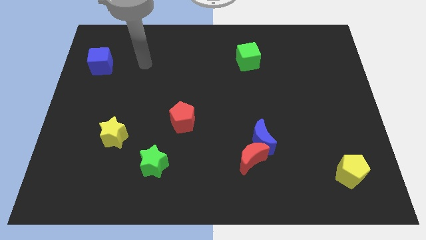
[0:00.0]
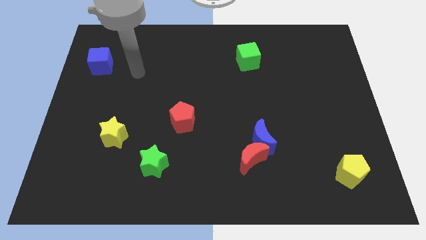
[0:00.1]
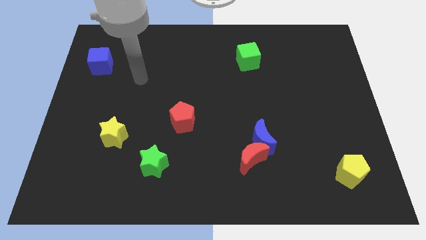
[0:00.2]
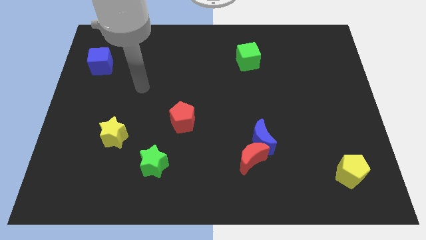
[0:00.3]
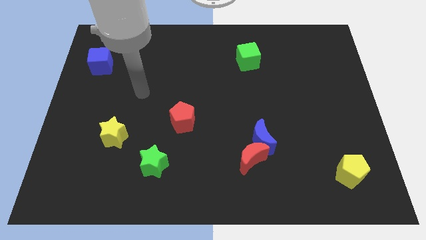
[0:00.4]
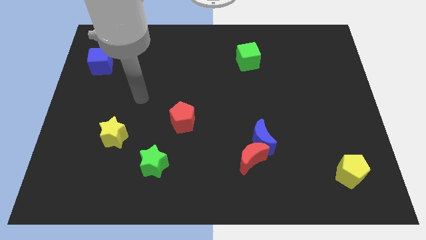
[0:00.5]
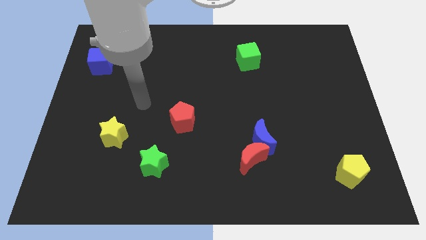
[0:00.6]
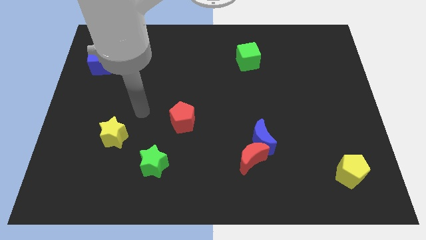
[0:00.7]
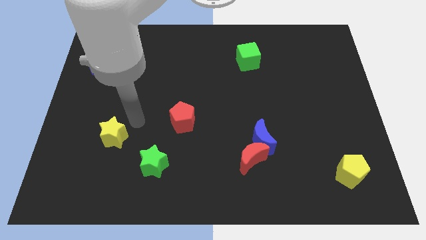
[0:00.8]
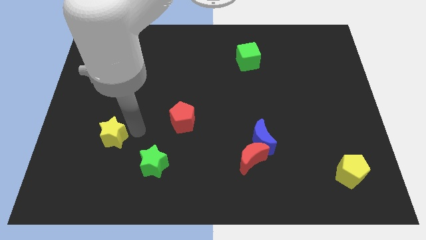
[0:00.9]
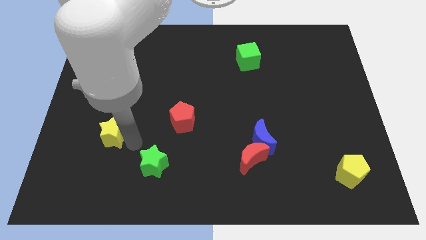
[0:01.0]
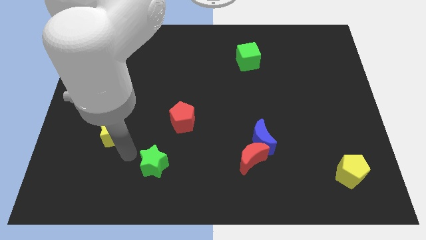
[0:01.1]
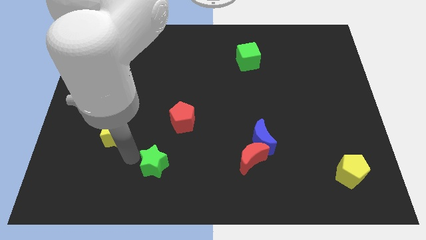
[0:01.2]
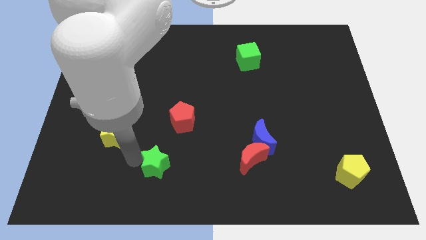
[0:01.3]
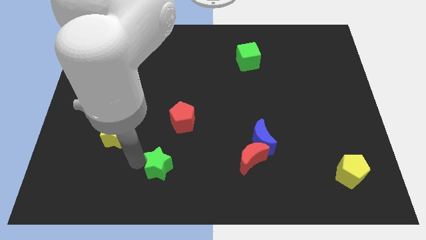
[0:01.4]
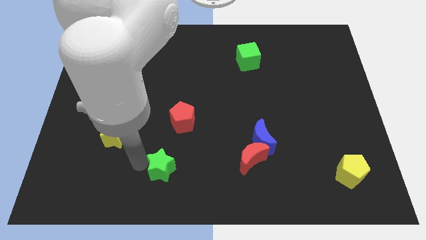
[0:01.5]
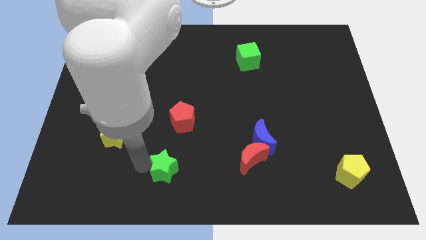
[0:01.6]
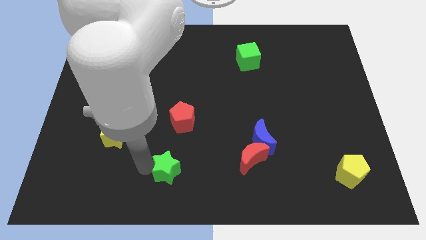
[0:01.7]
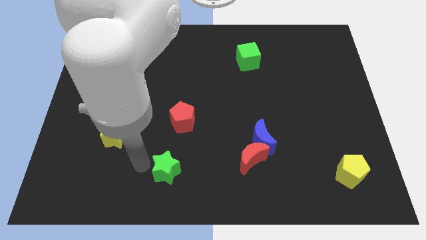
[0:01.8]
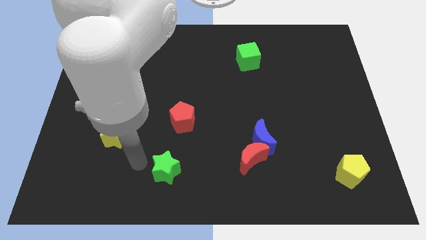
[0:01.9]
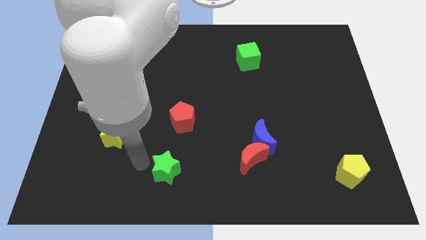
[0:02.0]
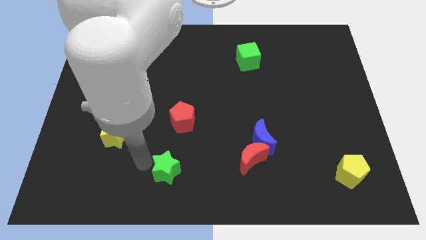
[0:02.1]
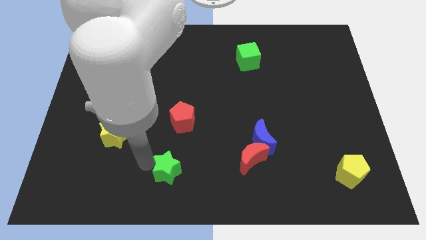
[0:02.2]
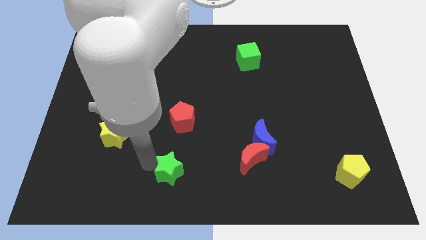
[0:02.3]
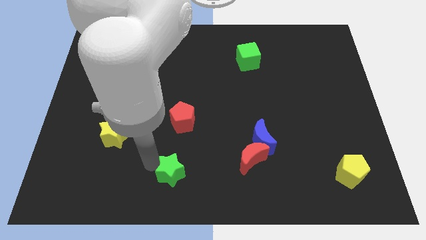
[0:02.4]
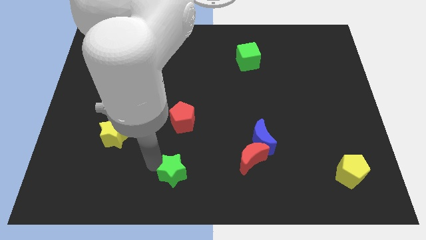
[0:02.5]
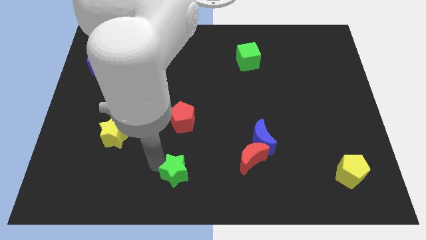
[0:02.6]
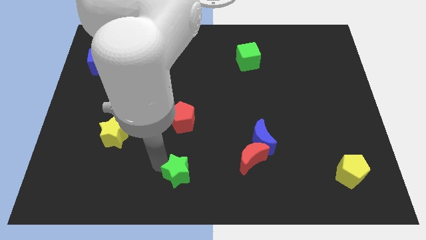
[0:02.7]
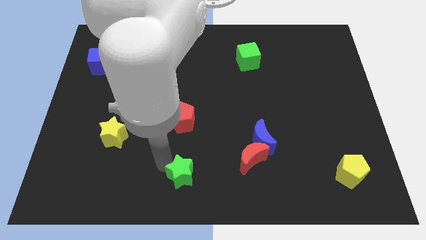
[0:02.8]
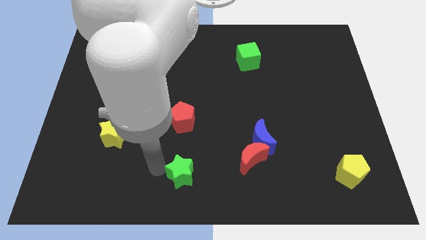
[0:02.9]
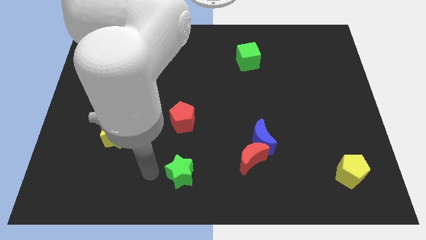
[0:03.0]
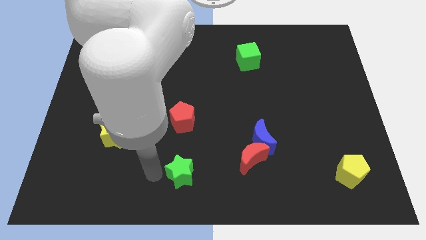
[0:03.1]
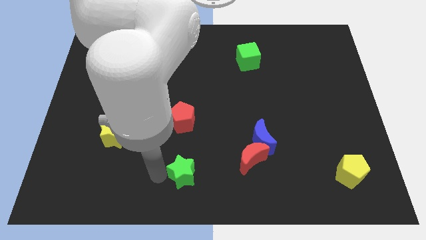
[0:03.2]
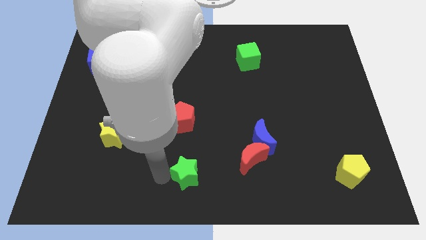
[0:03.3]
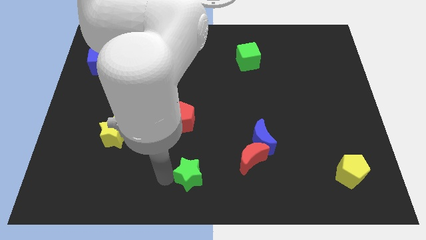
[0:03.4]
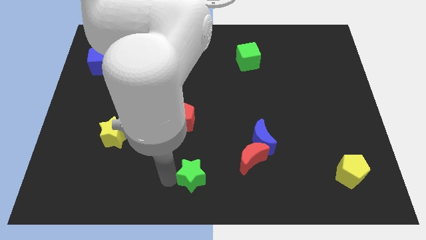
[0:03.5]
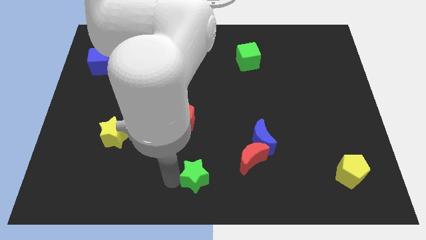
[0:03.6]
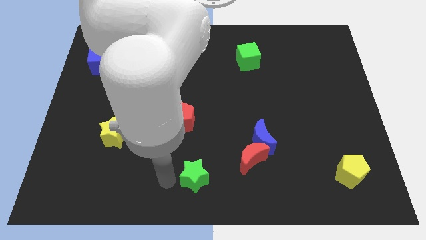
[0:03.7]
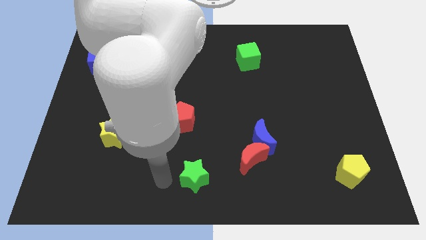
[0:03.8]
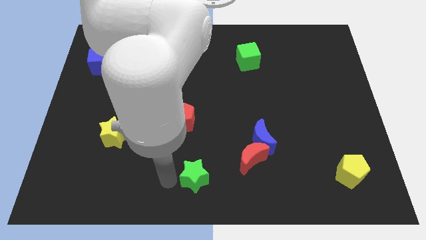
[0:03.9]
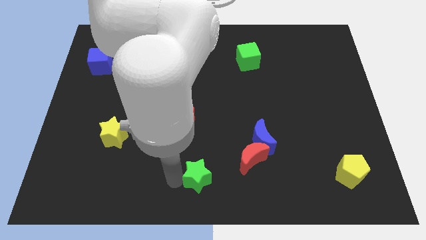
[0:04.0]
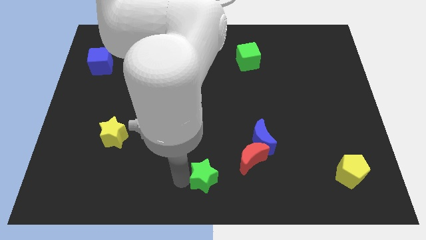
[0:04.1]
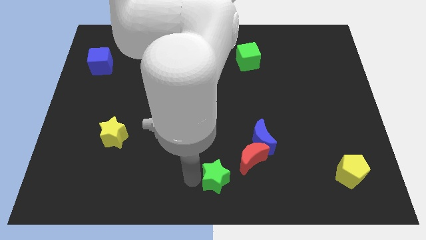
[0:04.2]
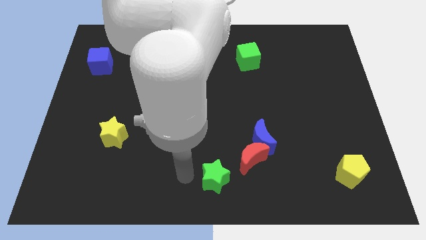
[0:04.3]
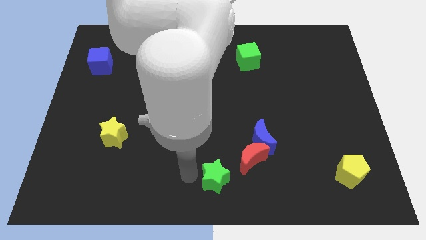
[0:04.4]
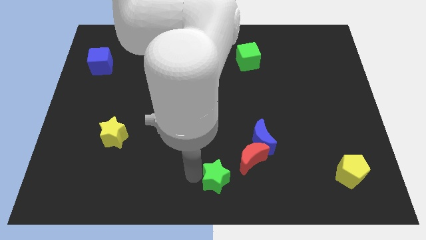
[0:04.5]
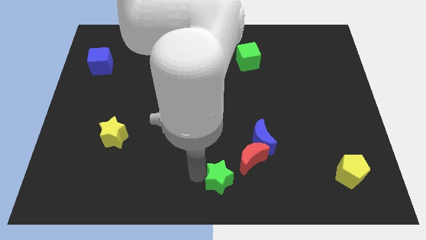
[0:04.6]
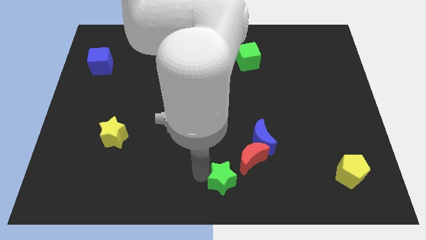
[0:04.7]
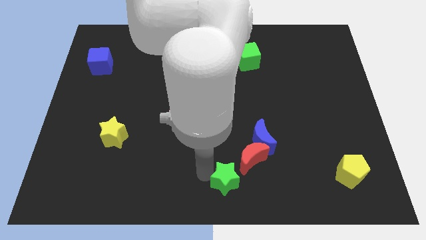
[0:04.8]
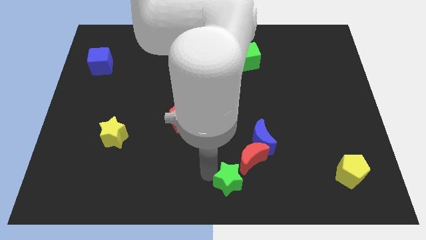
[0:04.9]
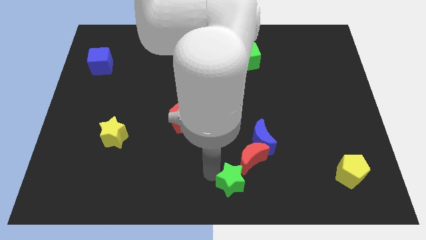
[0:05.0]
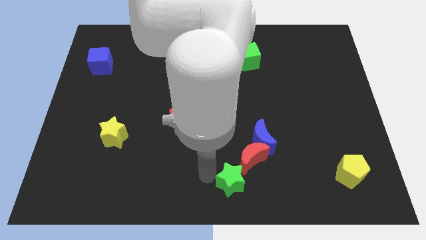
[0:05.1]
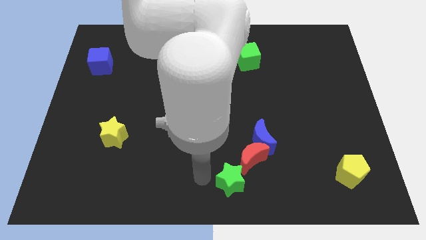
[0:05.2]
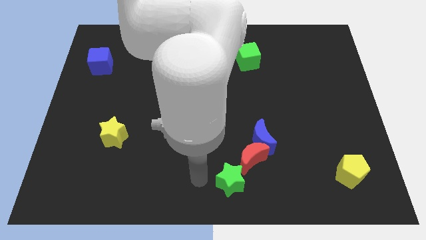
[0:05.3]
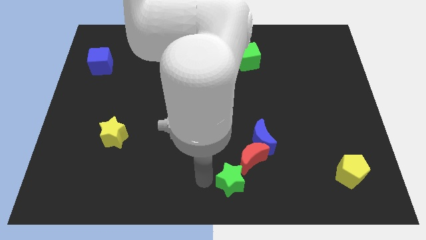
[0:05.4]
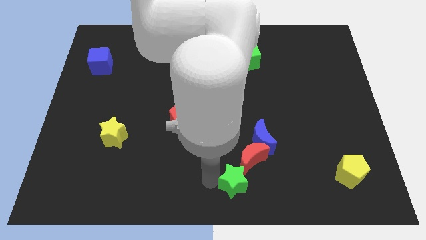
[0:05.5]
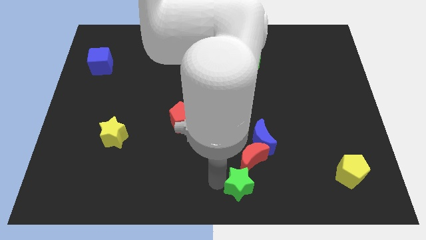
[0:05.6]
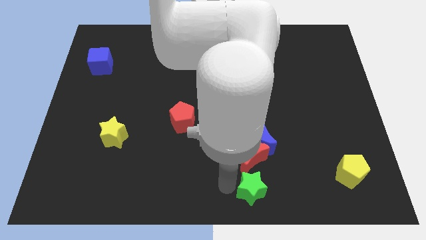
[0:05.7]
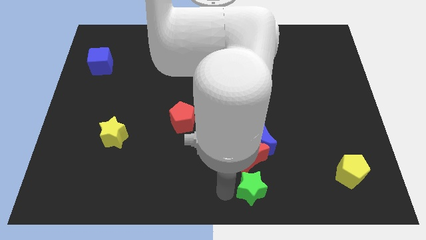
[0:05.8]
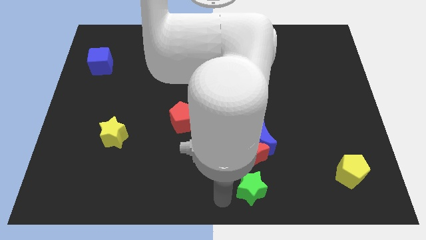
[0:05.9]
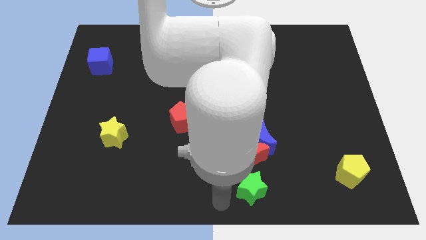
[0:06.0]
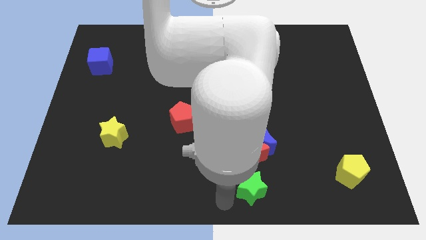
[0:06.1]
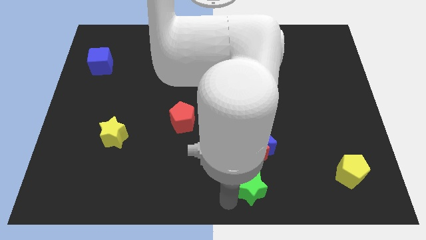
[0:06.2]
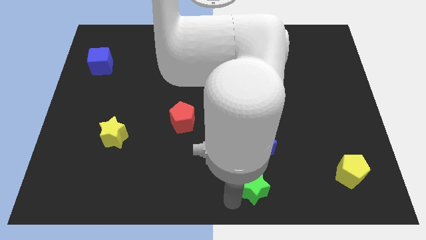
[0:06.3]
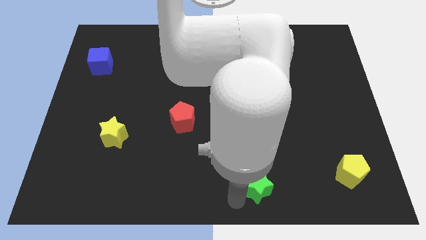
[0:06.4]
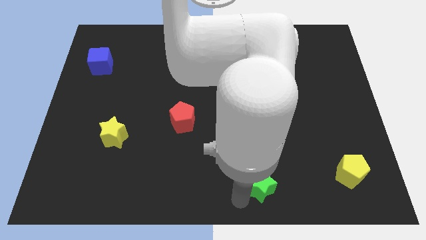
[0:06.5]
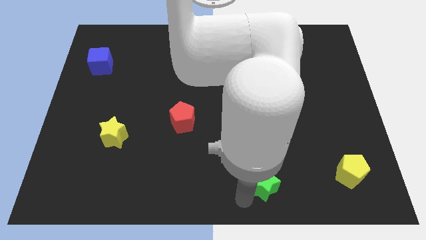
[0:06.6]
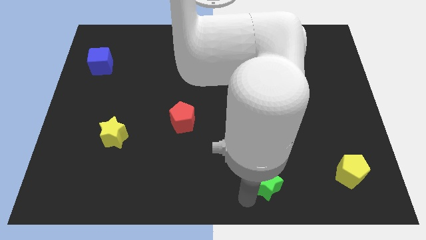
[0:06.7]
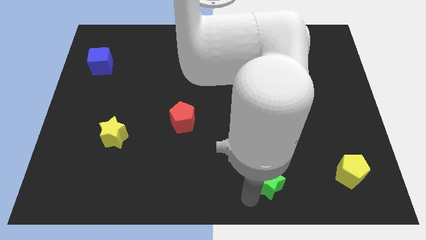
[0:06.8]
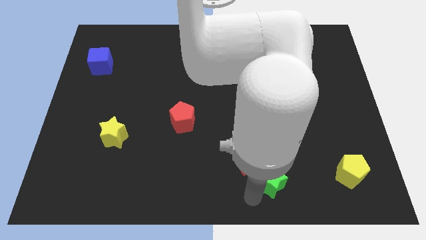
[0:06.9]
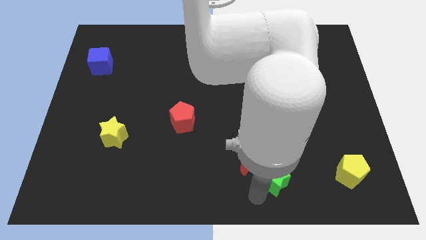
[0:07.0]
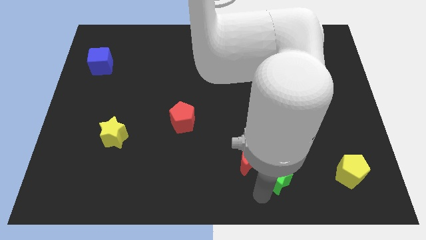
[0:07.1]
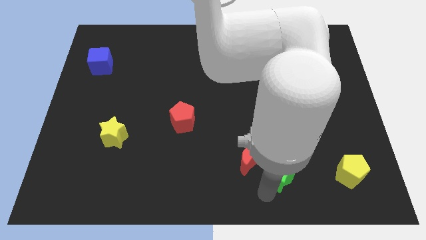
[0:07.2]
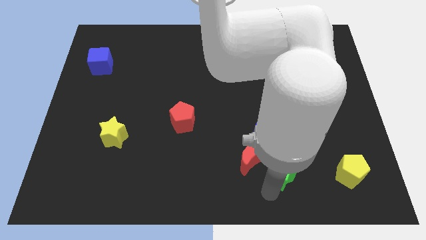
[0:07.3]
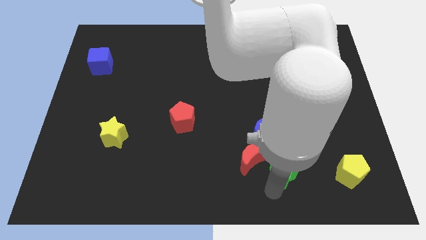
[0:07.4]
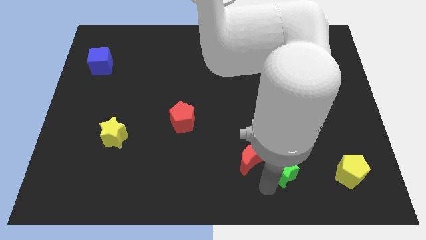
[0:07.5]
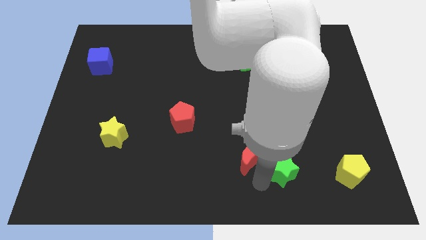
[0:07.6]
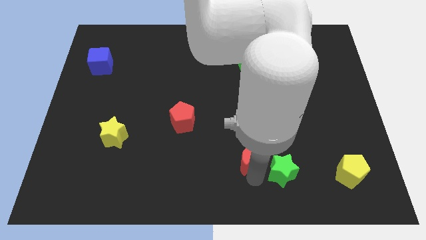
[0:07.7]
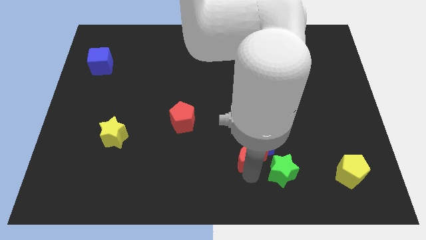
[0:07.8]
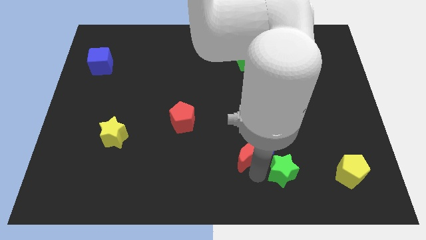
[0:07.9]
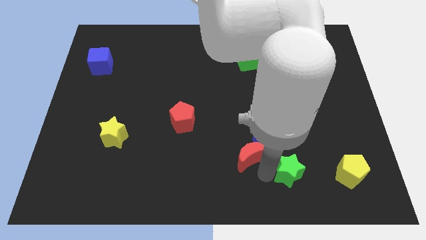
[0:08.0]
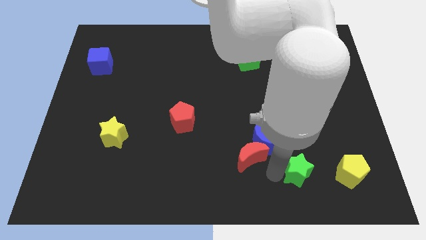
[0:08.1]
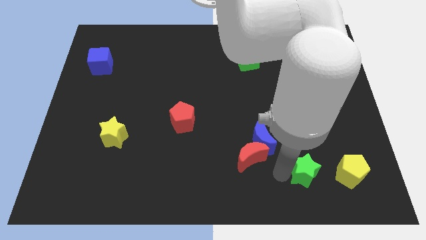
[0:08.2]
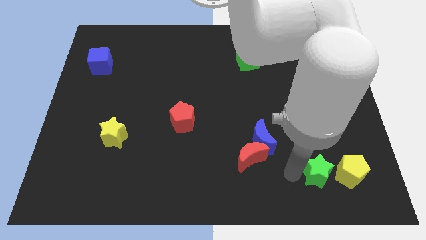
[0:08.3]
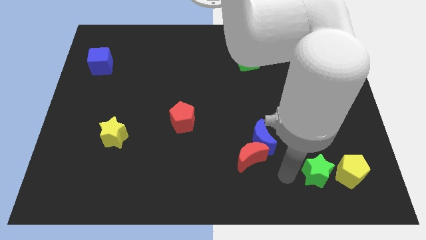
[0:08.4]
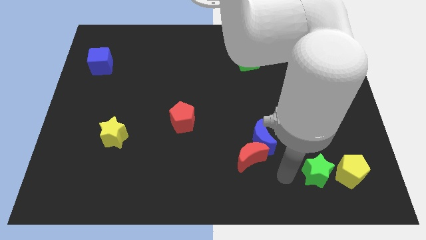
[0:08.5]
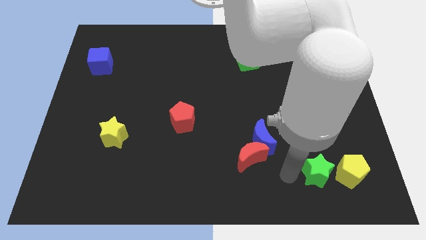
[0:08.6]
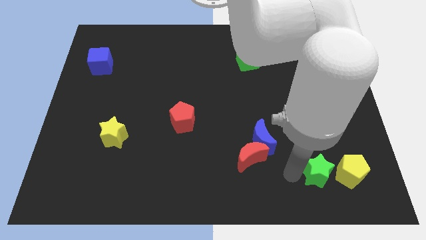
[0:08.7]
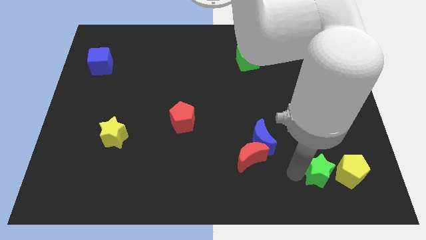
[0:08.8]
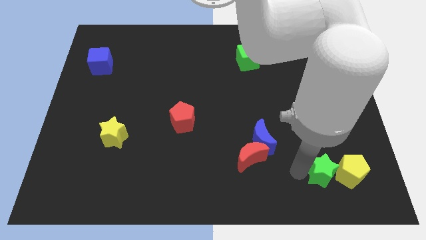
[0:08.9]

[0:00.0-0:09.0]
move the green star next to the yellow pentagon
